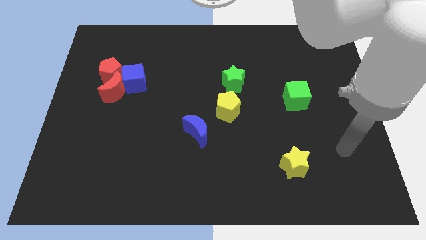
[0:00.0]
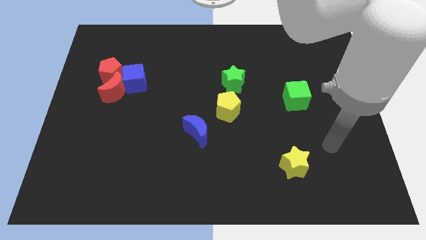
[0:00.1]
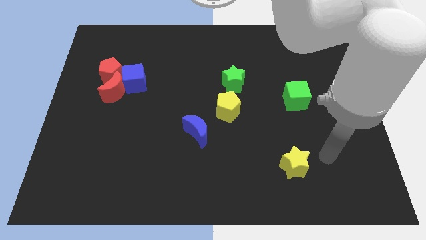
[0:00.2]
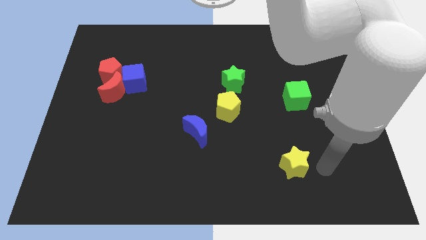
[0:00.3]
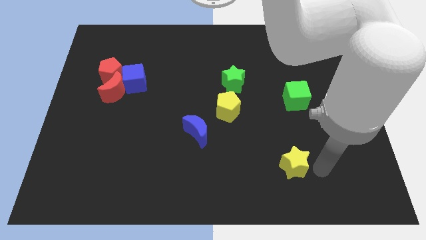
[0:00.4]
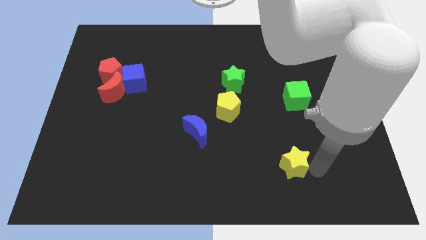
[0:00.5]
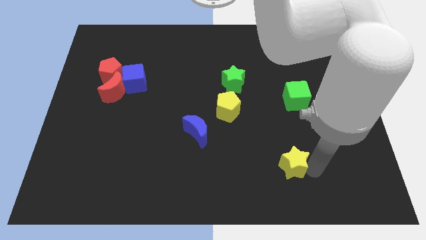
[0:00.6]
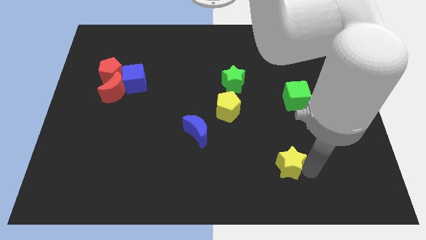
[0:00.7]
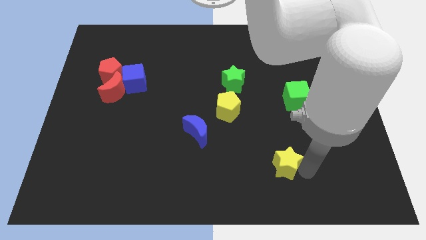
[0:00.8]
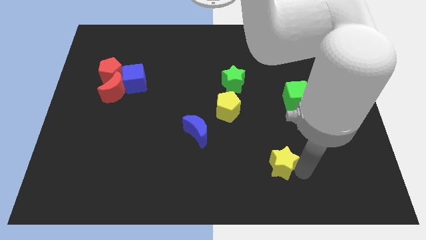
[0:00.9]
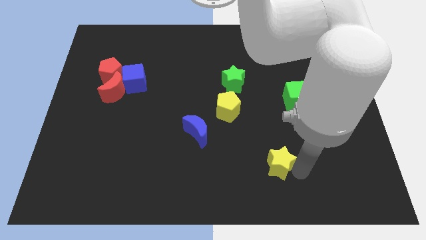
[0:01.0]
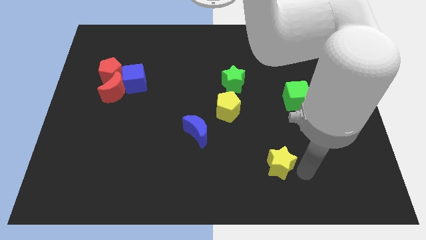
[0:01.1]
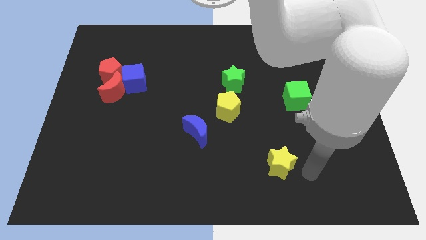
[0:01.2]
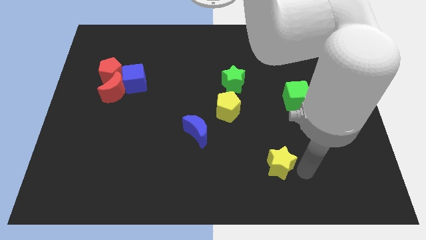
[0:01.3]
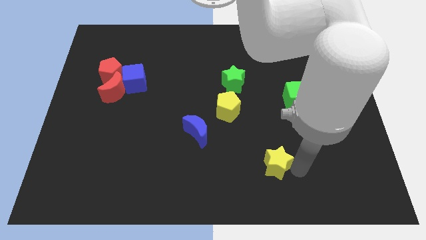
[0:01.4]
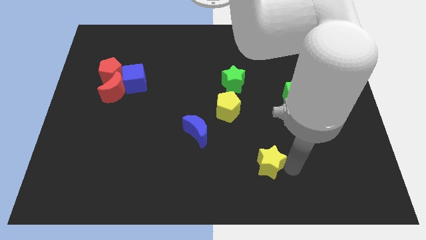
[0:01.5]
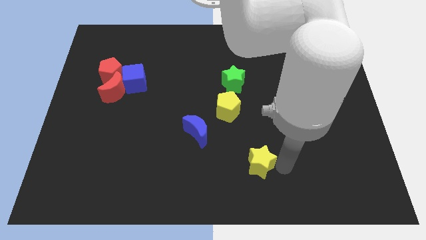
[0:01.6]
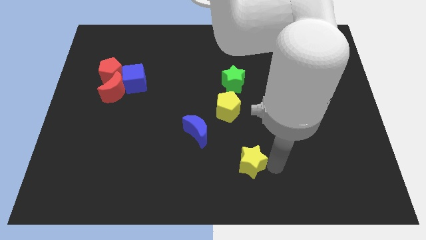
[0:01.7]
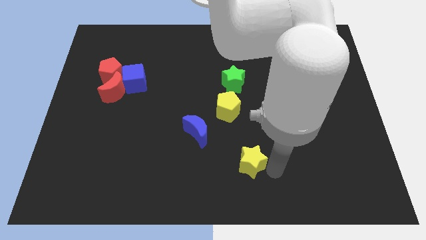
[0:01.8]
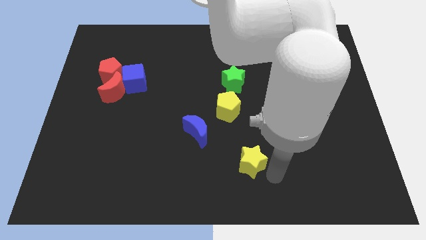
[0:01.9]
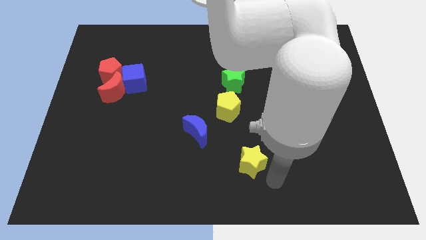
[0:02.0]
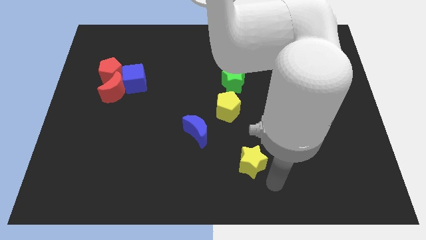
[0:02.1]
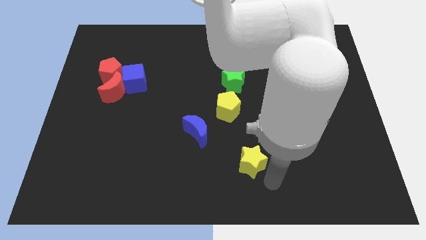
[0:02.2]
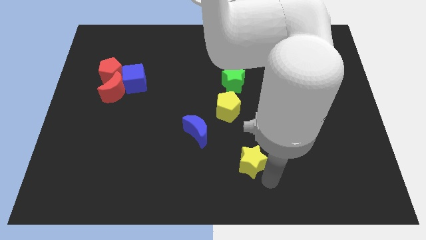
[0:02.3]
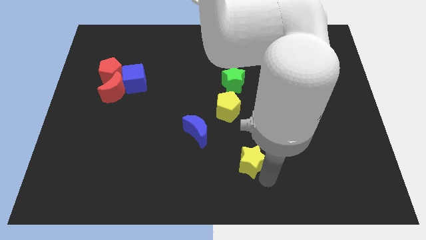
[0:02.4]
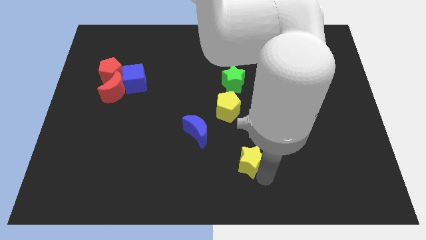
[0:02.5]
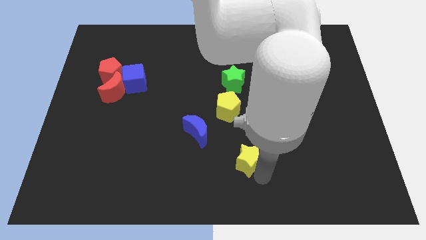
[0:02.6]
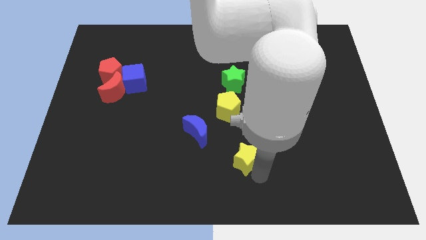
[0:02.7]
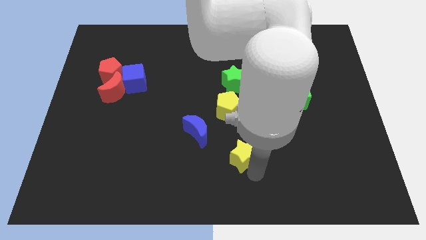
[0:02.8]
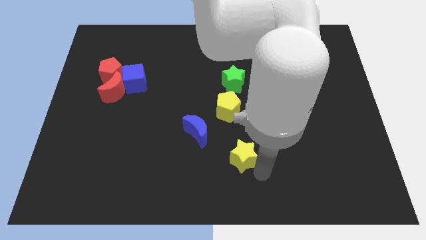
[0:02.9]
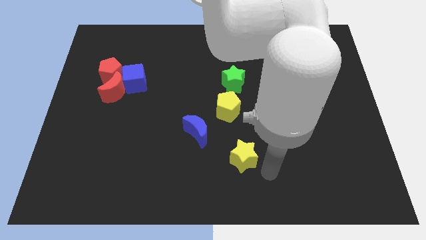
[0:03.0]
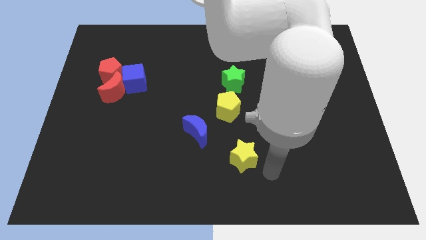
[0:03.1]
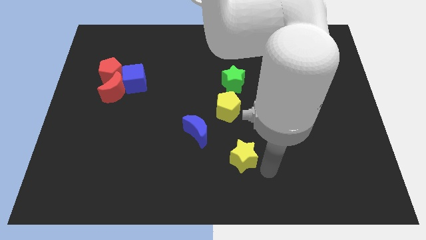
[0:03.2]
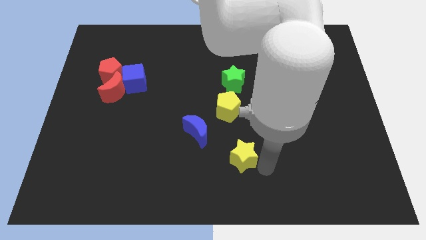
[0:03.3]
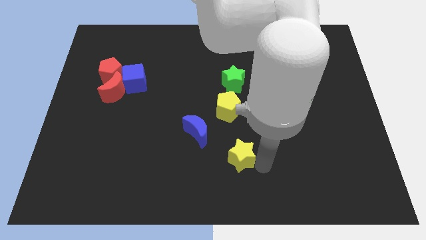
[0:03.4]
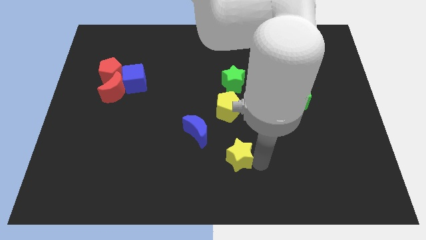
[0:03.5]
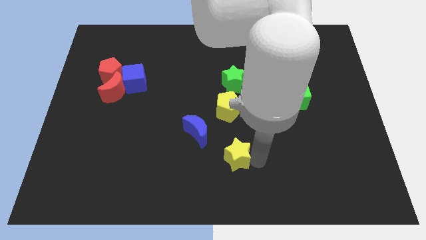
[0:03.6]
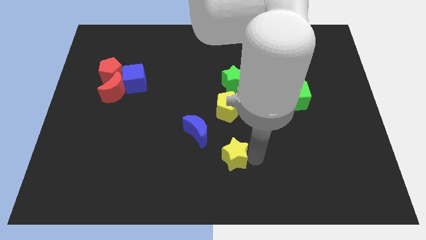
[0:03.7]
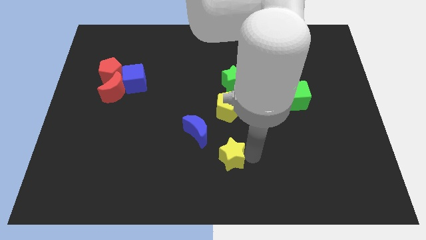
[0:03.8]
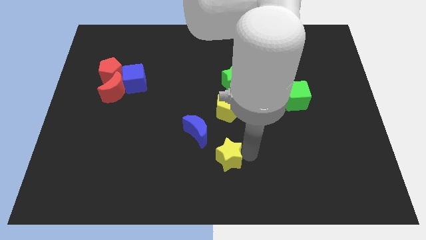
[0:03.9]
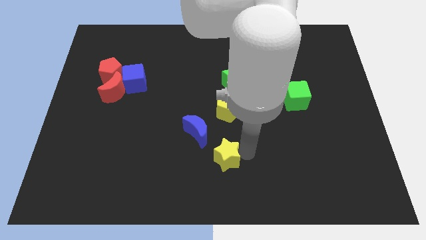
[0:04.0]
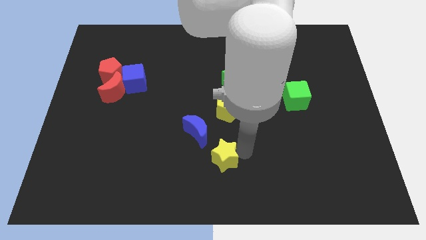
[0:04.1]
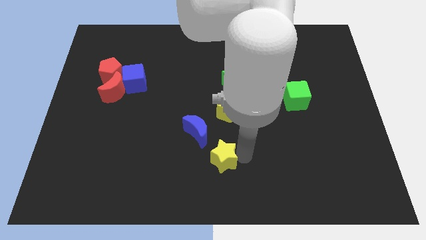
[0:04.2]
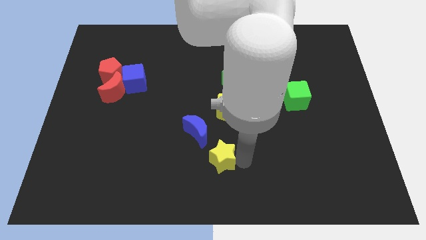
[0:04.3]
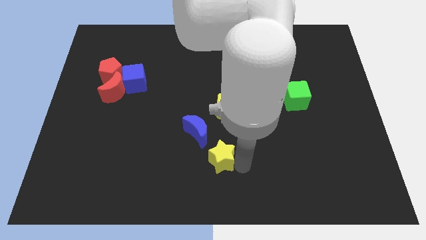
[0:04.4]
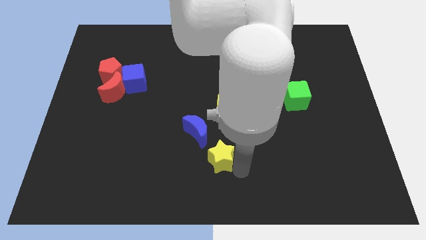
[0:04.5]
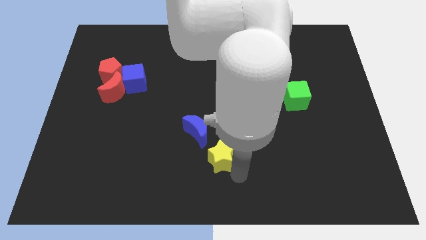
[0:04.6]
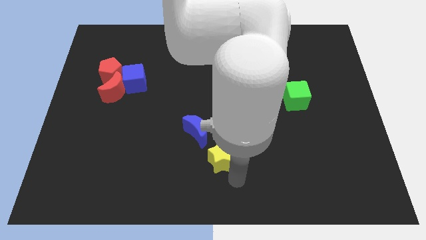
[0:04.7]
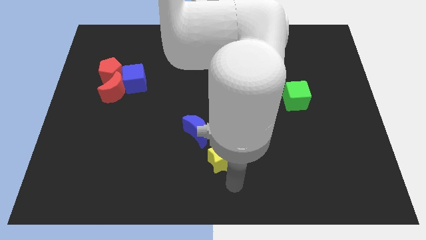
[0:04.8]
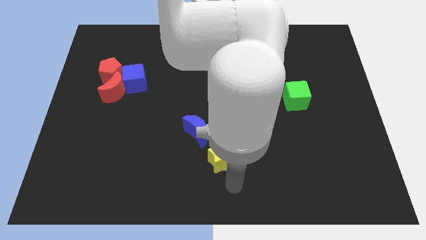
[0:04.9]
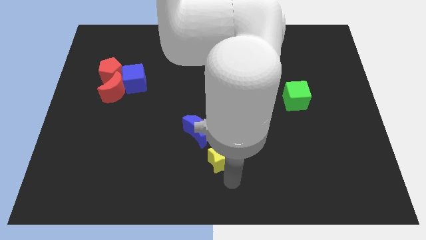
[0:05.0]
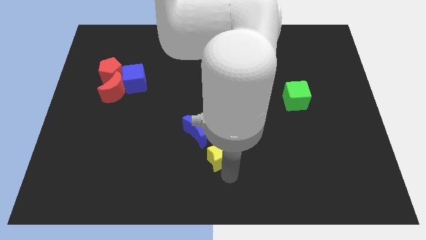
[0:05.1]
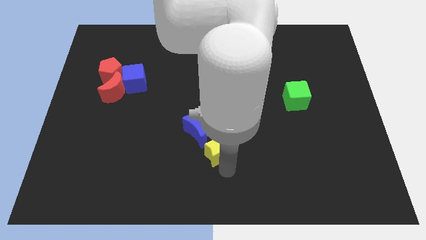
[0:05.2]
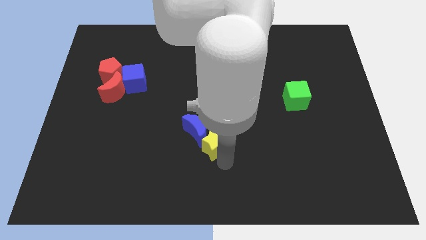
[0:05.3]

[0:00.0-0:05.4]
move the yellow star close to the blue moon

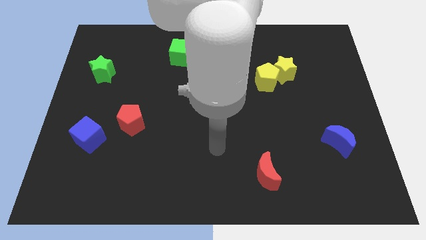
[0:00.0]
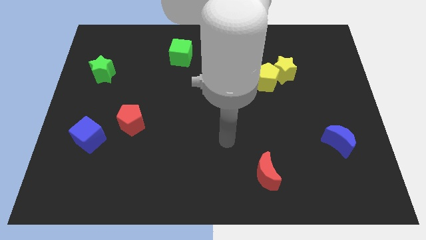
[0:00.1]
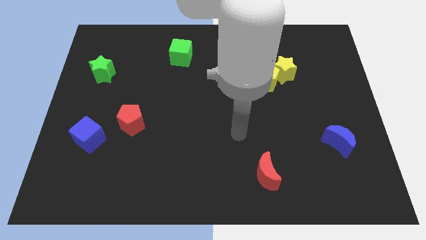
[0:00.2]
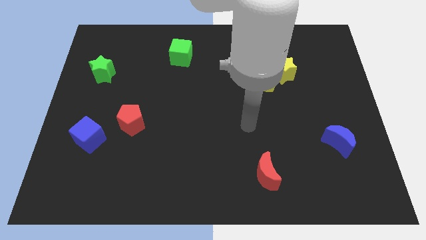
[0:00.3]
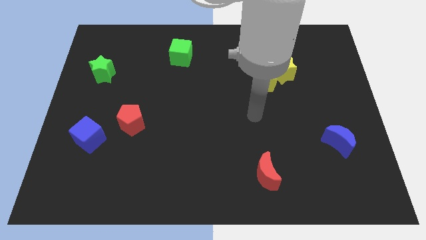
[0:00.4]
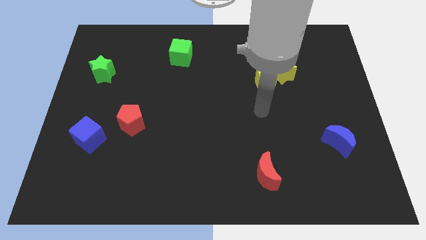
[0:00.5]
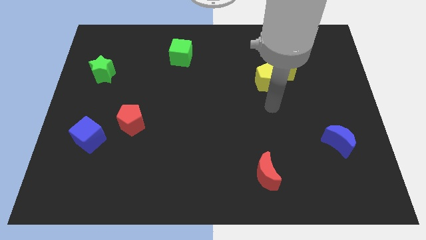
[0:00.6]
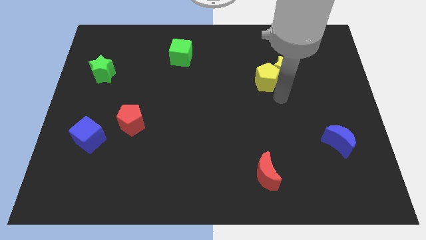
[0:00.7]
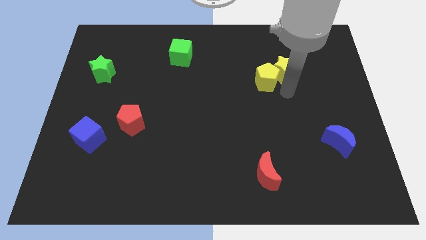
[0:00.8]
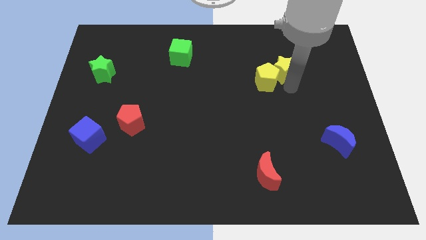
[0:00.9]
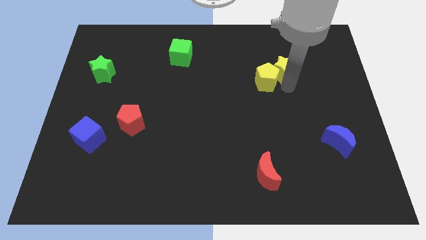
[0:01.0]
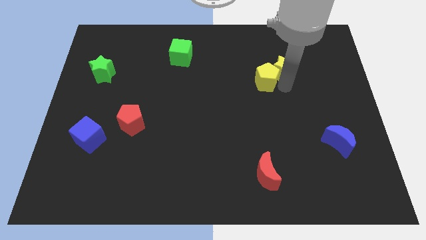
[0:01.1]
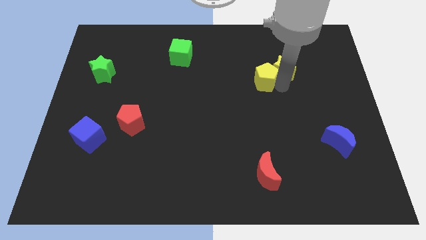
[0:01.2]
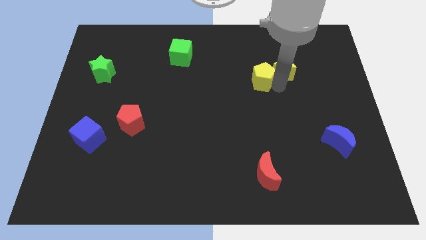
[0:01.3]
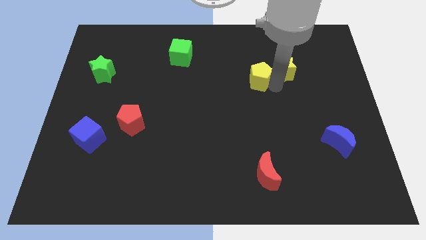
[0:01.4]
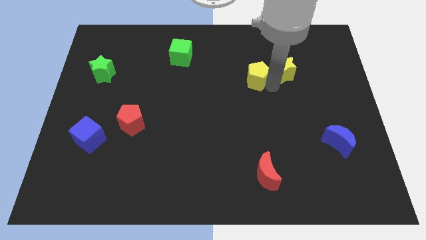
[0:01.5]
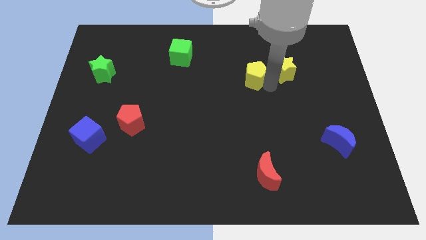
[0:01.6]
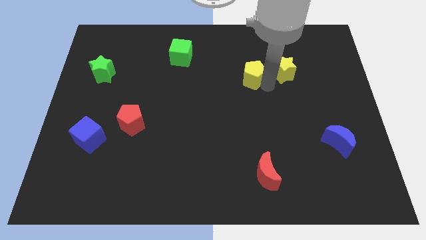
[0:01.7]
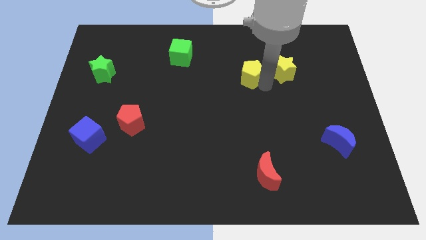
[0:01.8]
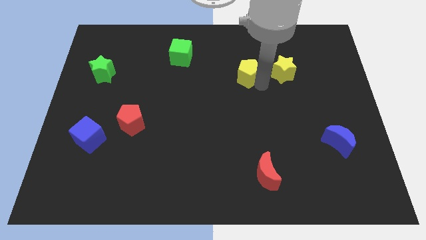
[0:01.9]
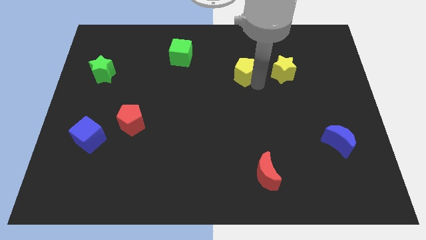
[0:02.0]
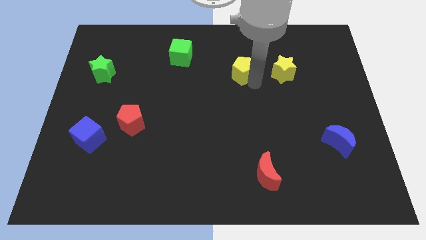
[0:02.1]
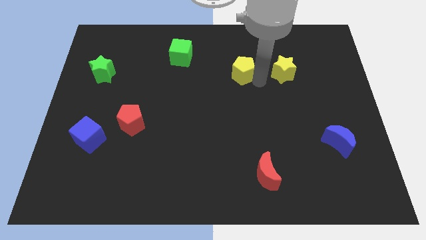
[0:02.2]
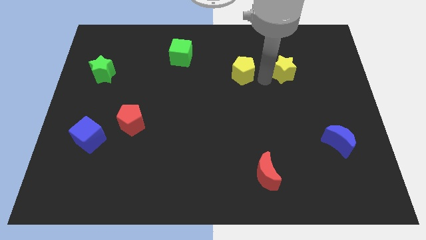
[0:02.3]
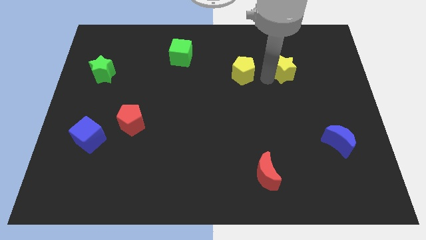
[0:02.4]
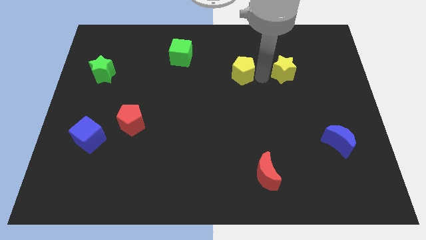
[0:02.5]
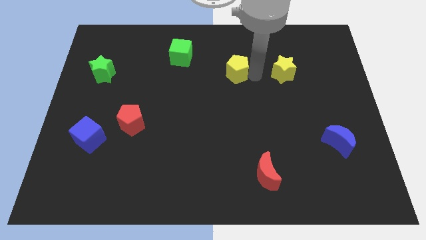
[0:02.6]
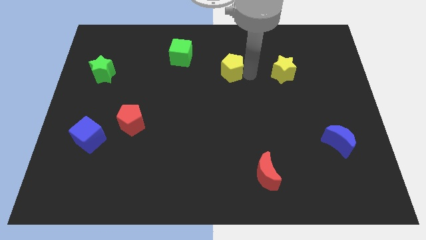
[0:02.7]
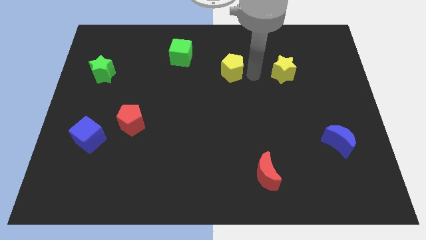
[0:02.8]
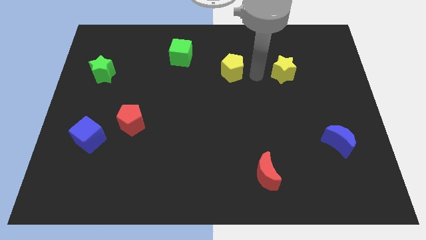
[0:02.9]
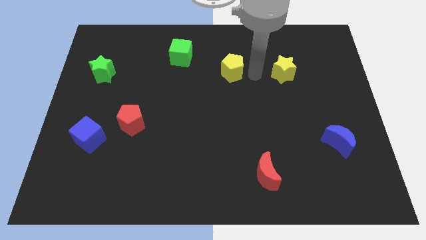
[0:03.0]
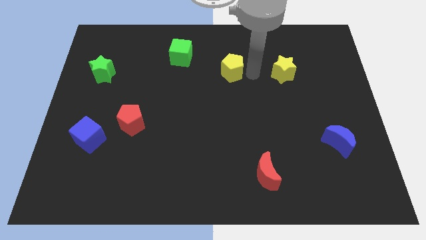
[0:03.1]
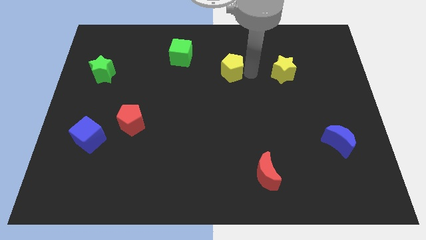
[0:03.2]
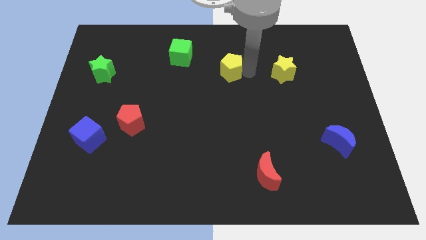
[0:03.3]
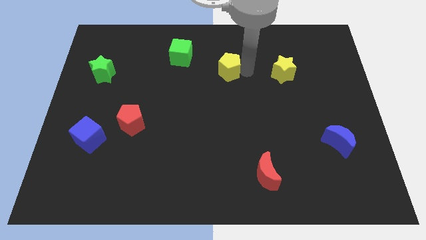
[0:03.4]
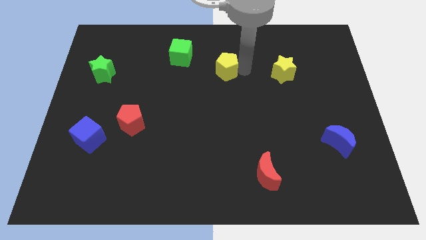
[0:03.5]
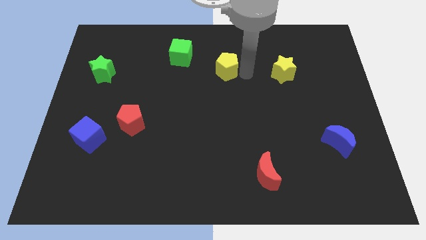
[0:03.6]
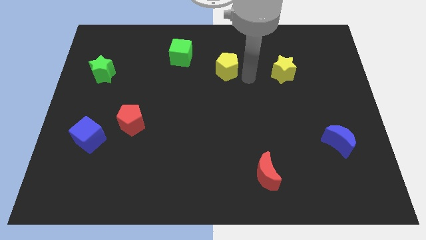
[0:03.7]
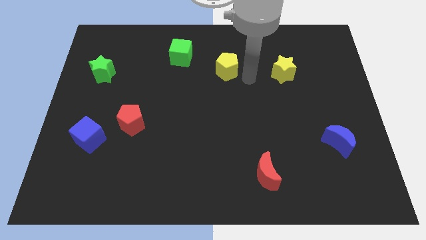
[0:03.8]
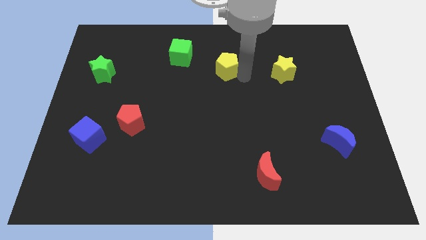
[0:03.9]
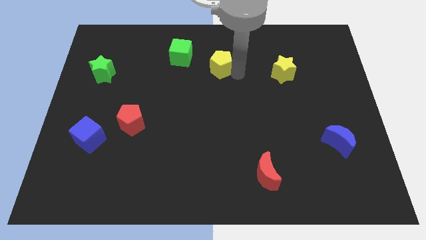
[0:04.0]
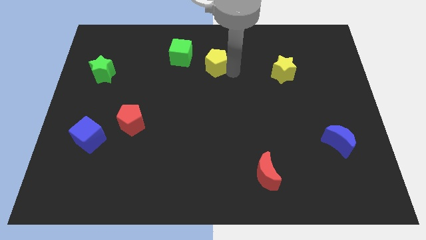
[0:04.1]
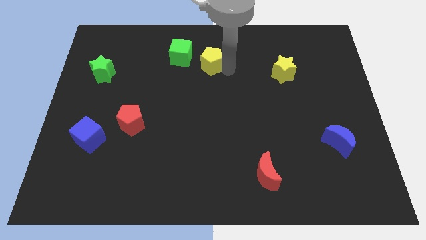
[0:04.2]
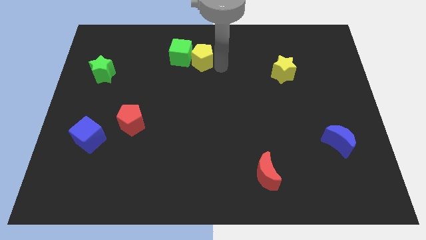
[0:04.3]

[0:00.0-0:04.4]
move the yellow pentagon to the green cube
